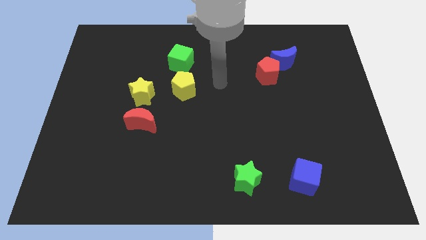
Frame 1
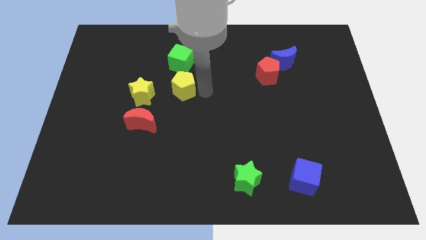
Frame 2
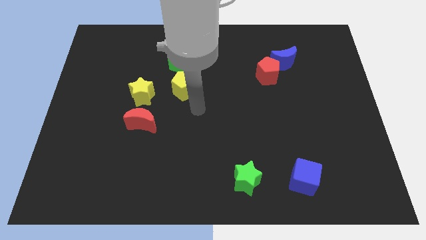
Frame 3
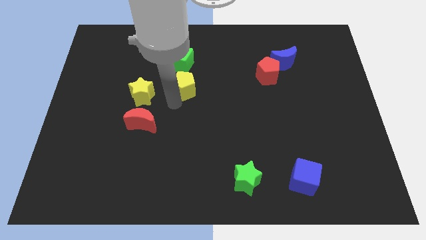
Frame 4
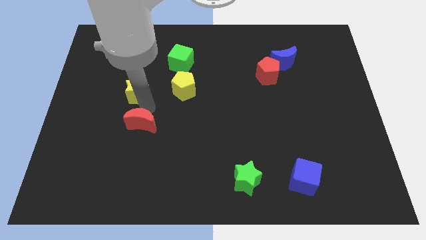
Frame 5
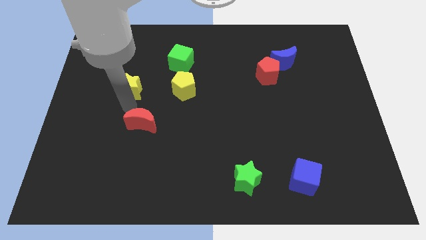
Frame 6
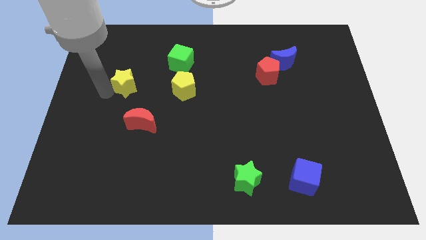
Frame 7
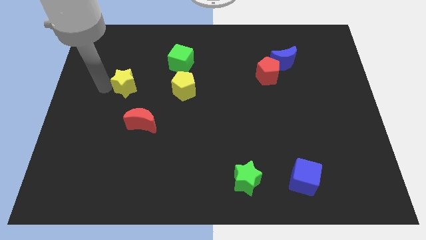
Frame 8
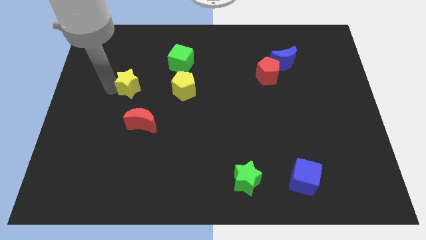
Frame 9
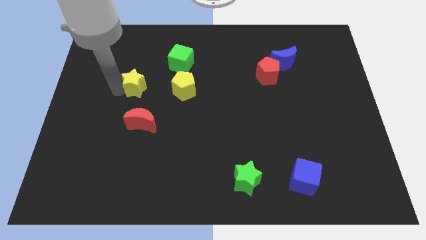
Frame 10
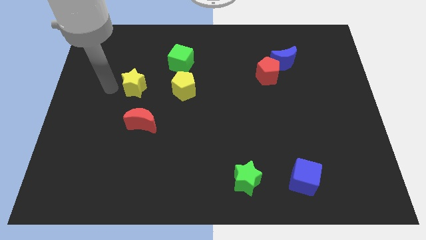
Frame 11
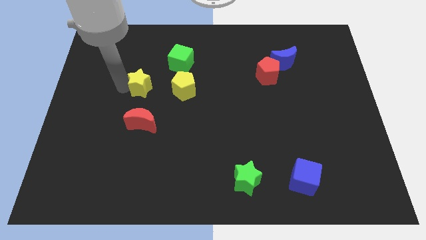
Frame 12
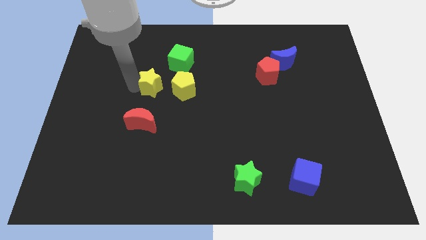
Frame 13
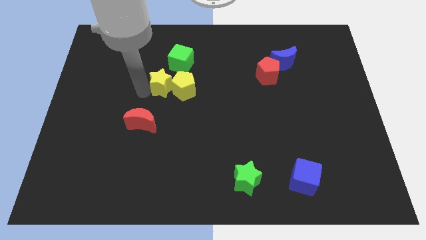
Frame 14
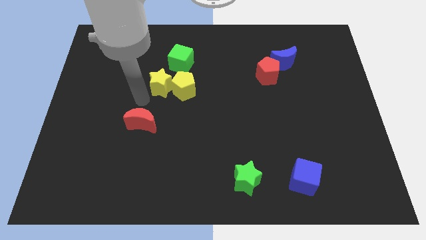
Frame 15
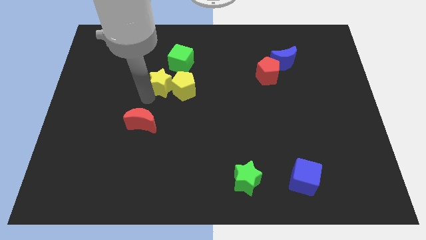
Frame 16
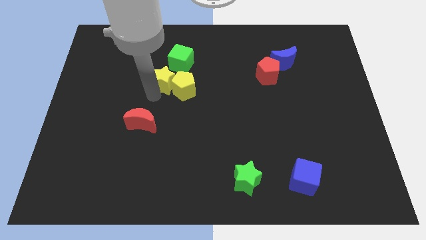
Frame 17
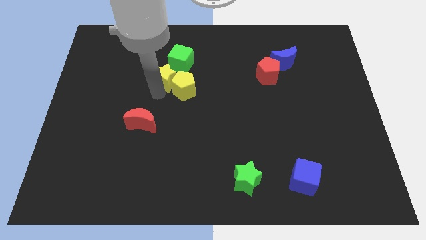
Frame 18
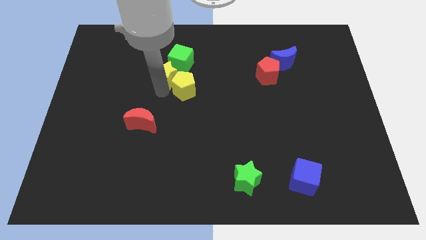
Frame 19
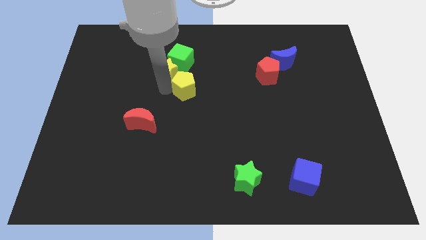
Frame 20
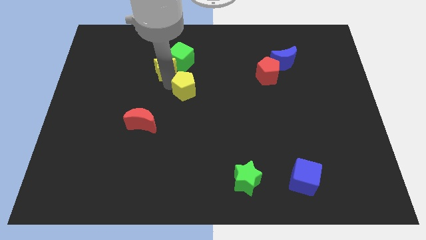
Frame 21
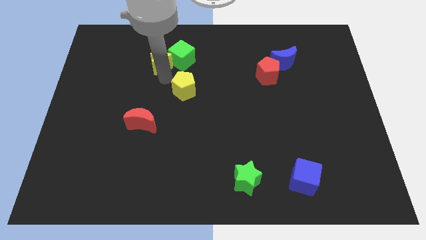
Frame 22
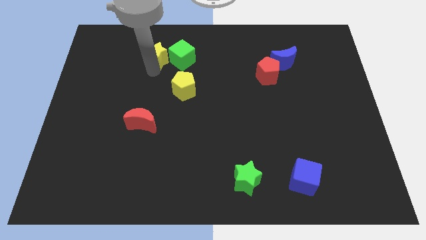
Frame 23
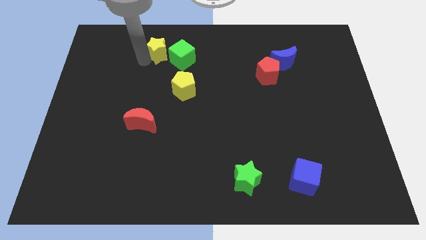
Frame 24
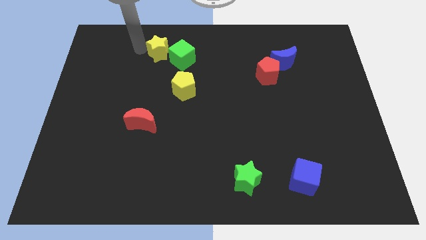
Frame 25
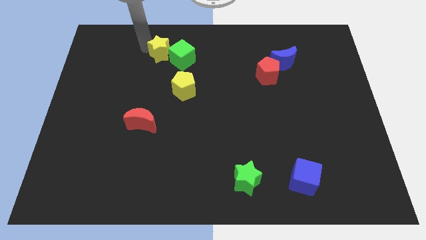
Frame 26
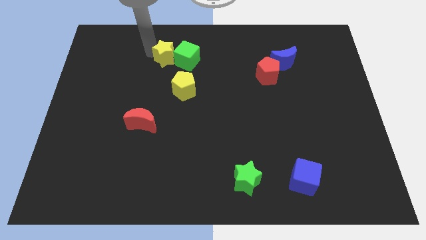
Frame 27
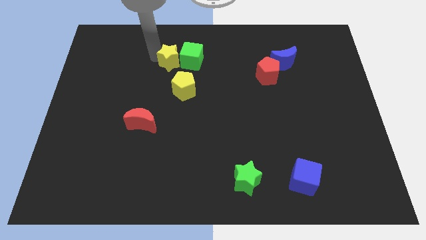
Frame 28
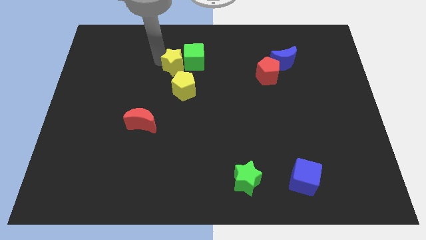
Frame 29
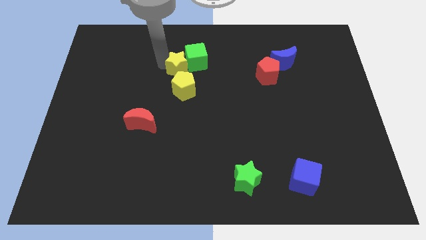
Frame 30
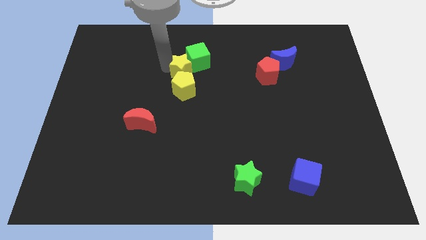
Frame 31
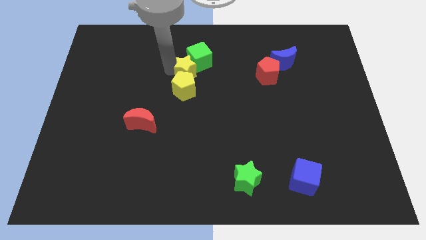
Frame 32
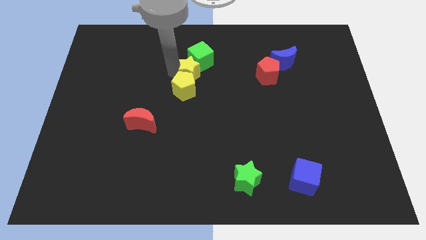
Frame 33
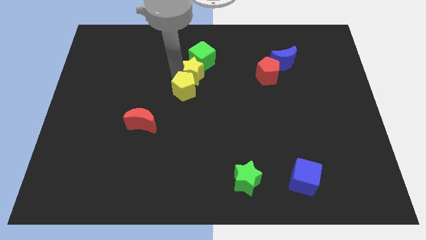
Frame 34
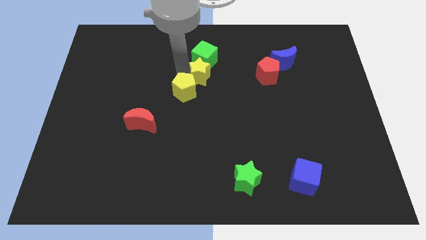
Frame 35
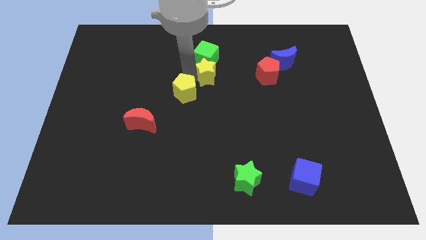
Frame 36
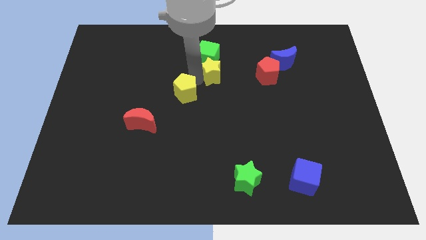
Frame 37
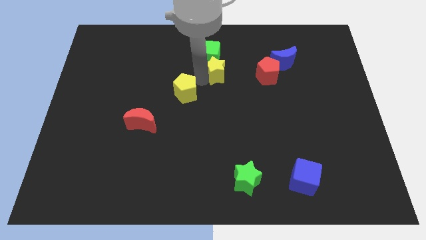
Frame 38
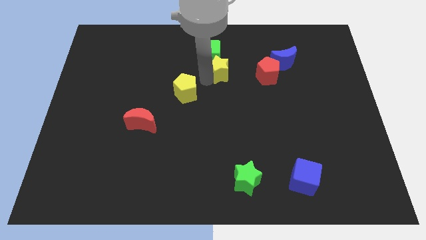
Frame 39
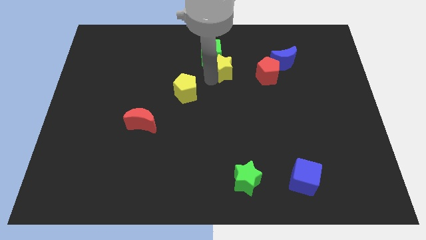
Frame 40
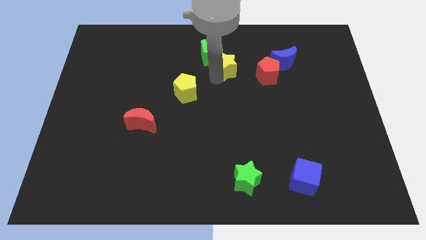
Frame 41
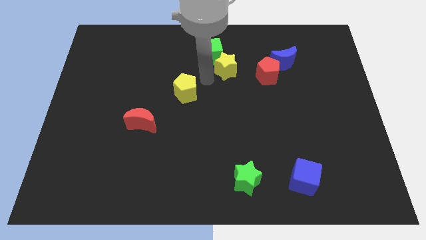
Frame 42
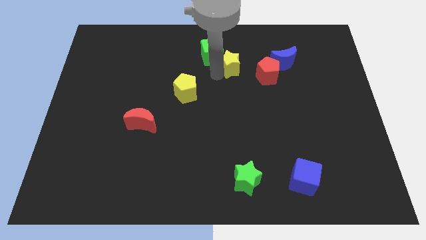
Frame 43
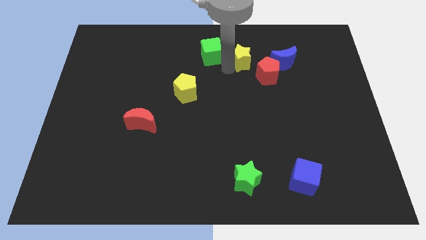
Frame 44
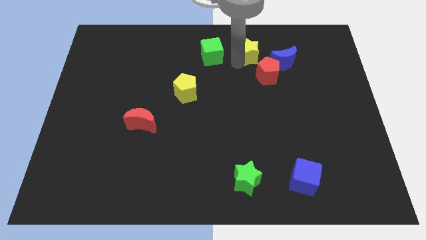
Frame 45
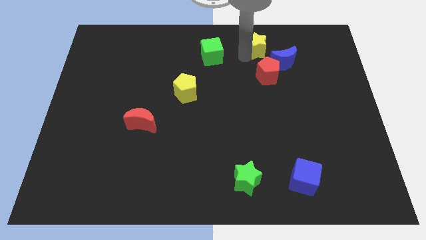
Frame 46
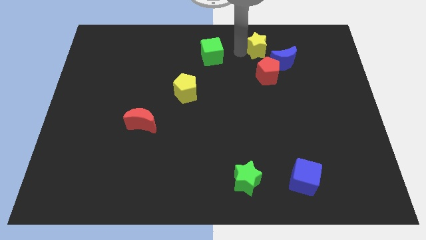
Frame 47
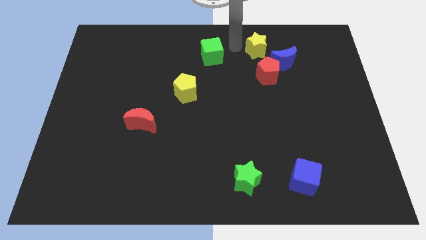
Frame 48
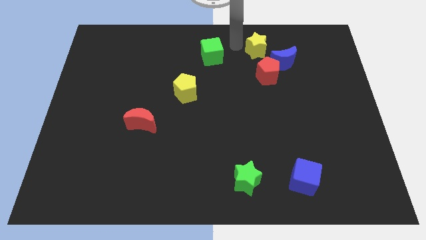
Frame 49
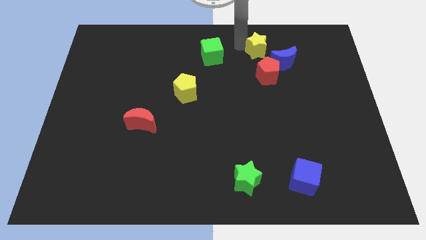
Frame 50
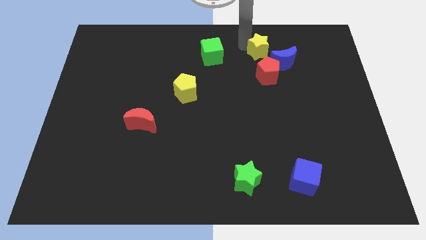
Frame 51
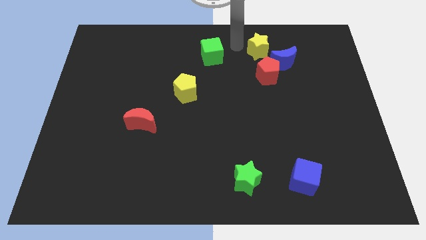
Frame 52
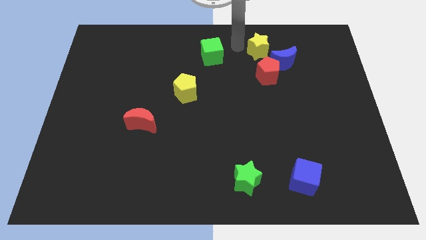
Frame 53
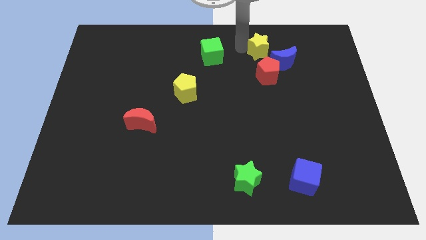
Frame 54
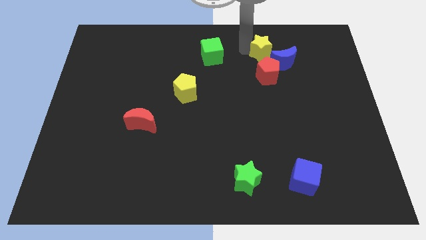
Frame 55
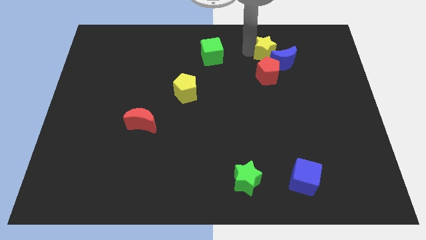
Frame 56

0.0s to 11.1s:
put the yellow star close to the blue moon

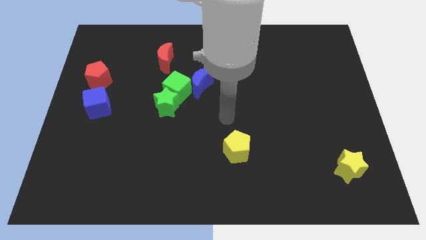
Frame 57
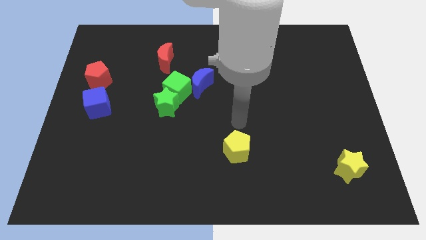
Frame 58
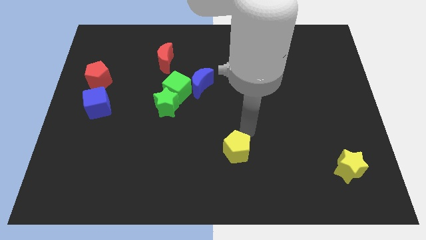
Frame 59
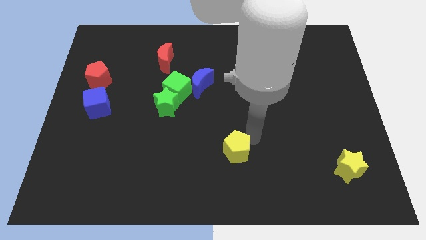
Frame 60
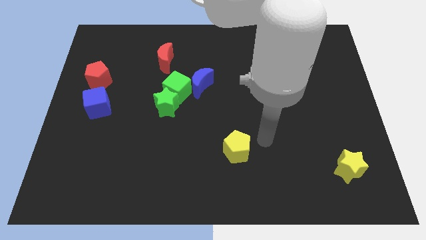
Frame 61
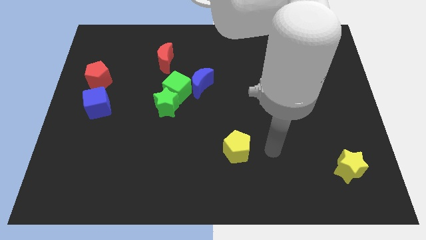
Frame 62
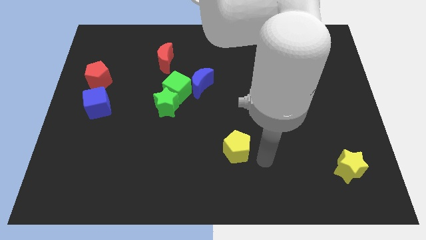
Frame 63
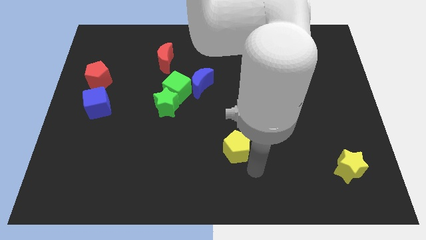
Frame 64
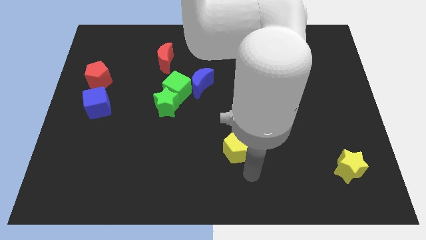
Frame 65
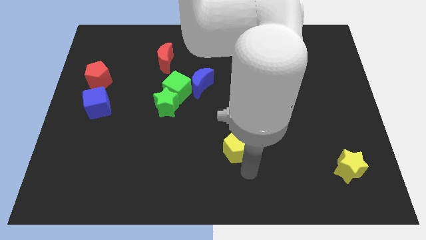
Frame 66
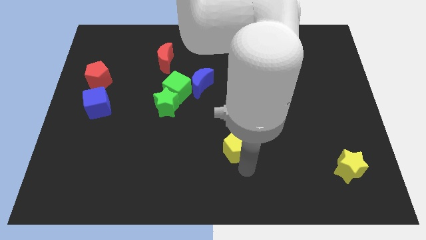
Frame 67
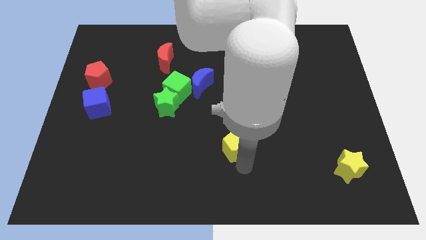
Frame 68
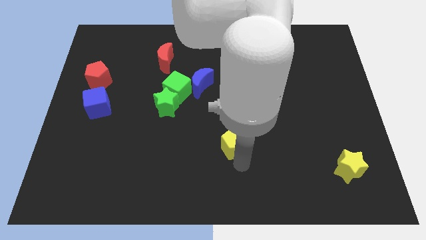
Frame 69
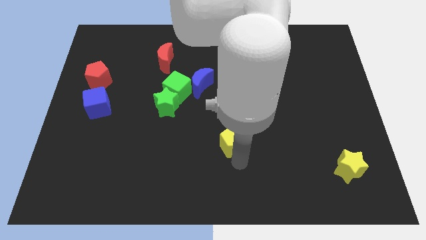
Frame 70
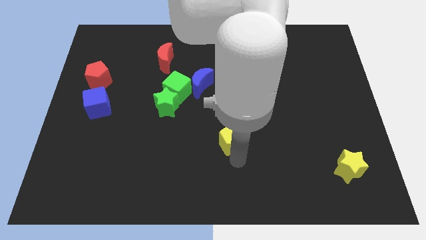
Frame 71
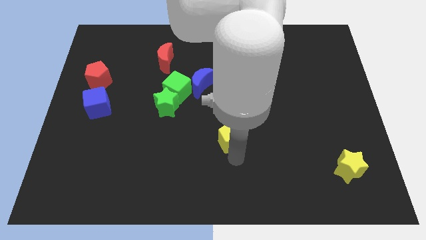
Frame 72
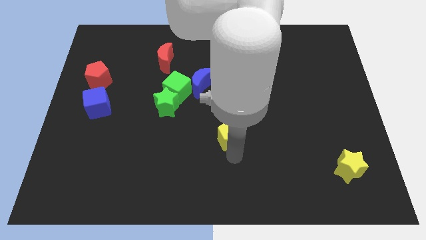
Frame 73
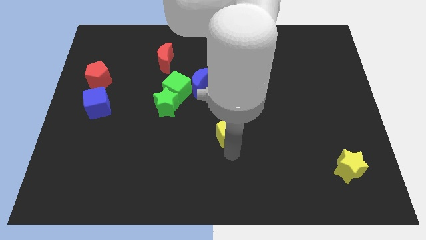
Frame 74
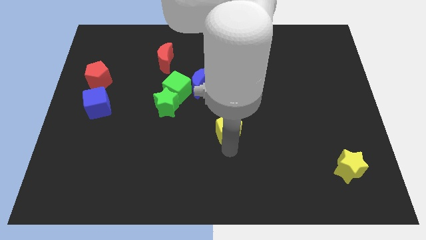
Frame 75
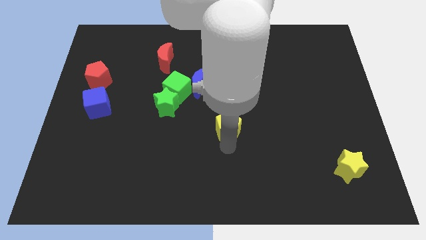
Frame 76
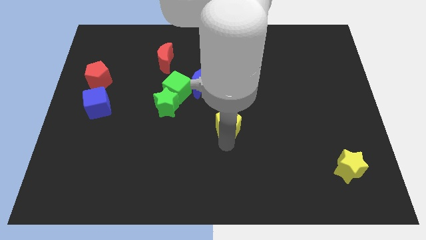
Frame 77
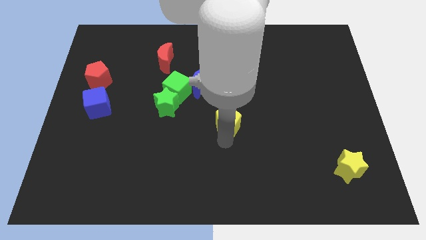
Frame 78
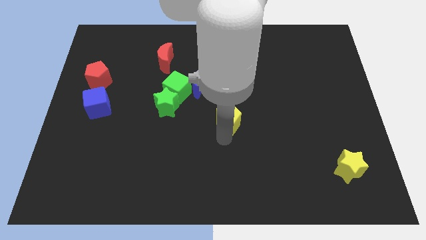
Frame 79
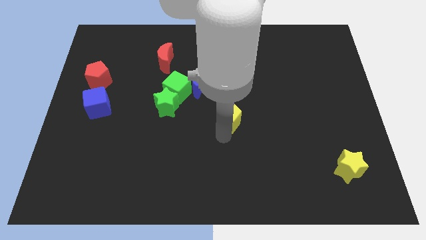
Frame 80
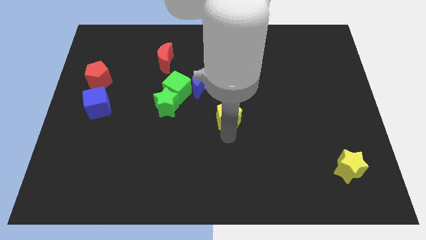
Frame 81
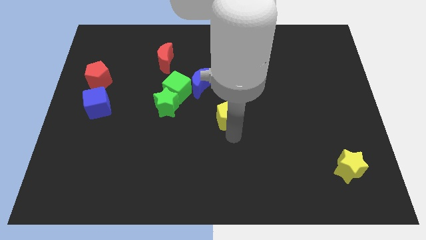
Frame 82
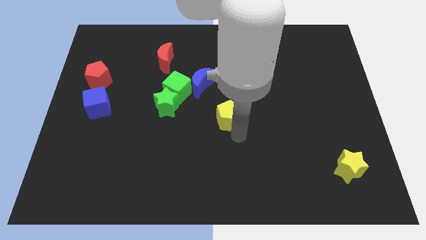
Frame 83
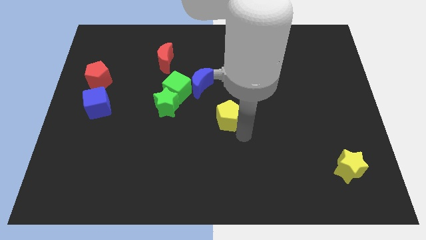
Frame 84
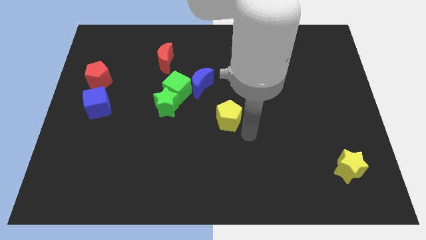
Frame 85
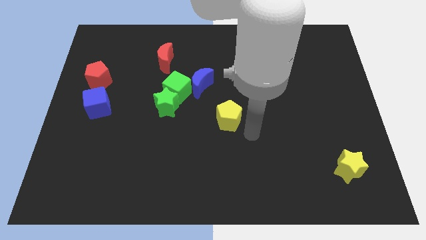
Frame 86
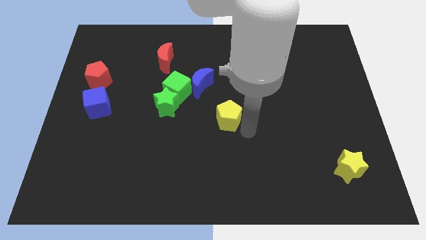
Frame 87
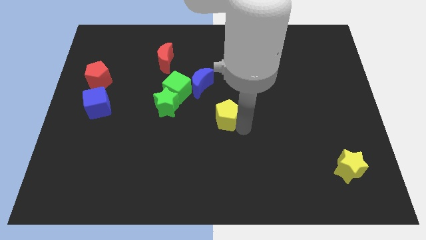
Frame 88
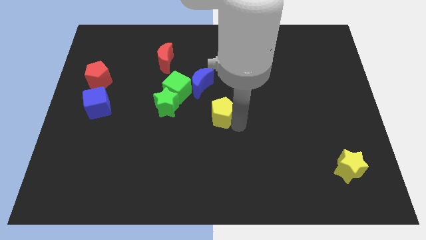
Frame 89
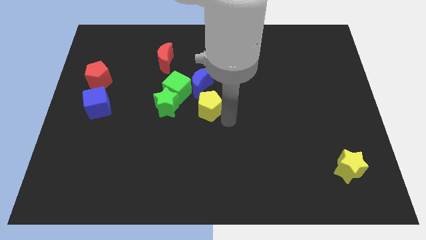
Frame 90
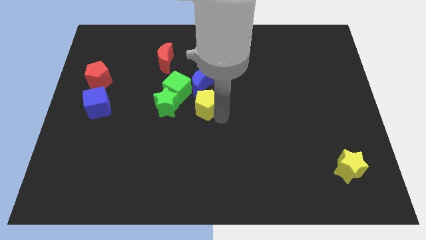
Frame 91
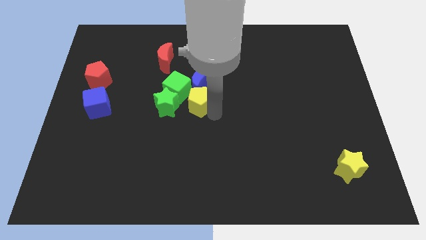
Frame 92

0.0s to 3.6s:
move the yellow pentagon to the blue moon
